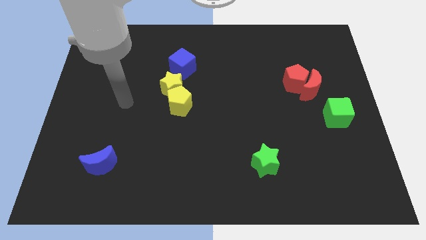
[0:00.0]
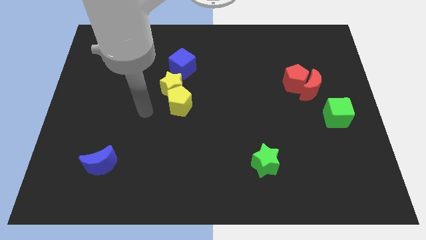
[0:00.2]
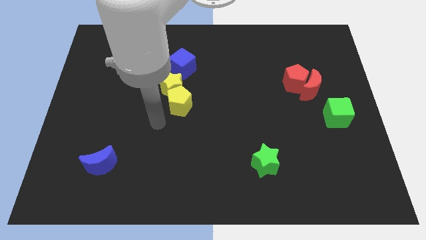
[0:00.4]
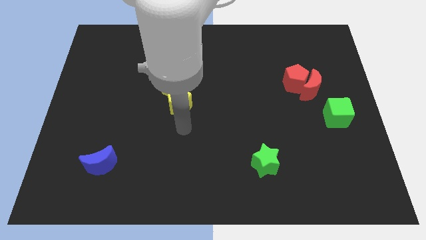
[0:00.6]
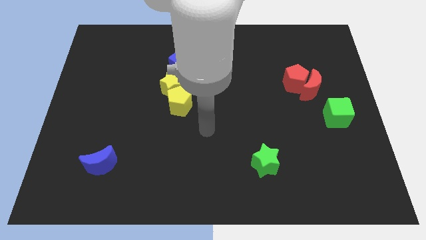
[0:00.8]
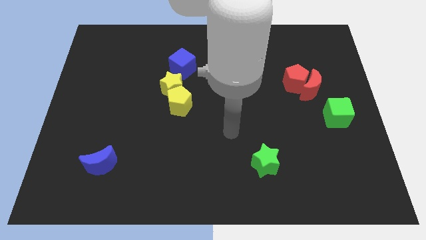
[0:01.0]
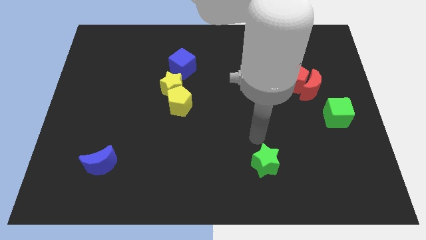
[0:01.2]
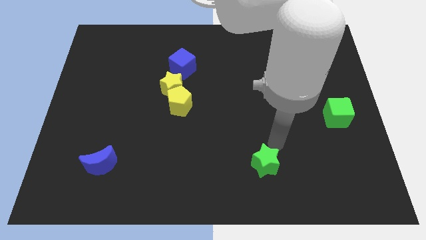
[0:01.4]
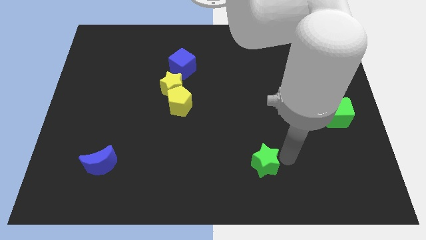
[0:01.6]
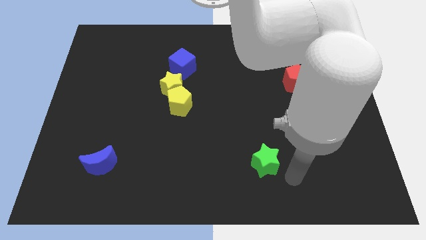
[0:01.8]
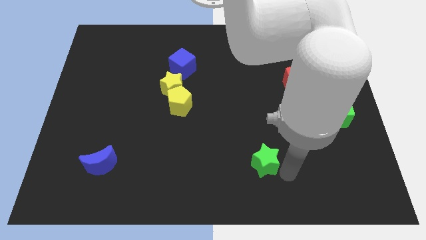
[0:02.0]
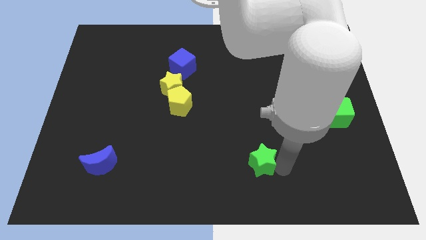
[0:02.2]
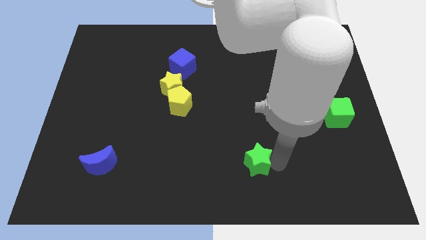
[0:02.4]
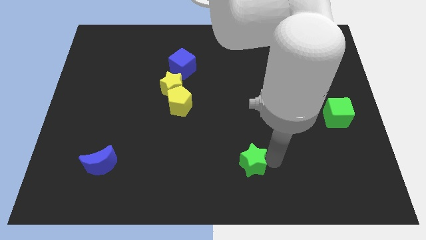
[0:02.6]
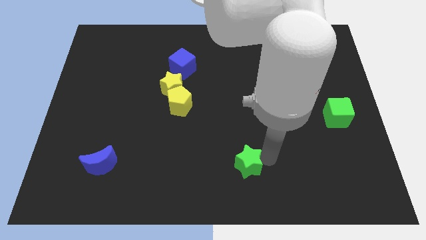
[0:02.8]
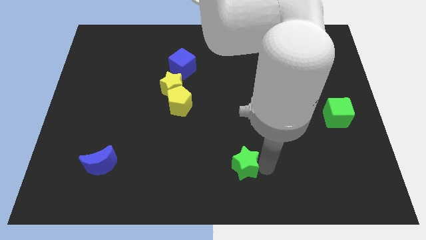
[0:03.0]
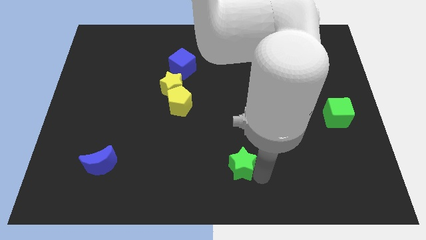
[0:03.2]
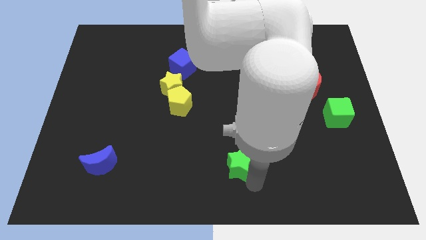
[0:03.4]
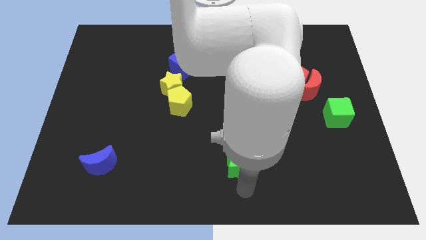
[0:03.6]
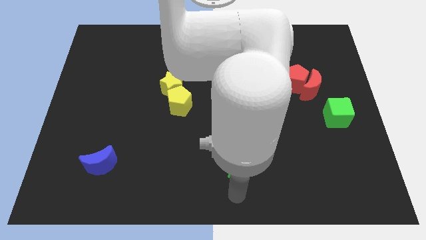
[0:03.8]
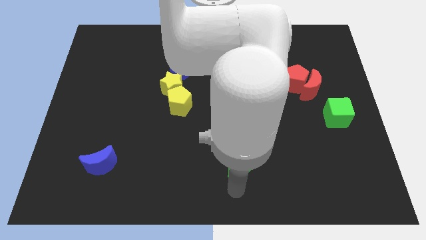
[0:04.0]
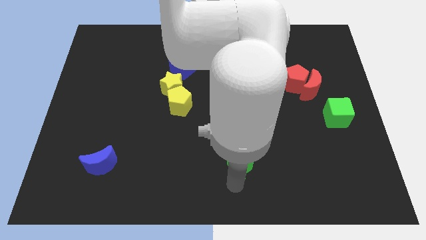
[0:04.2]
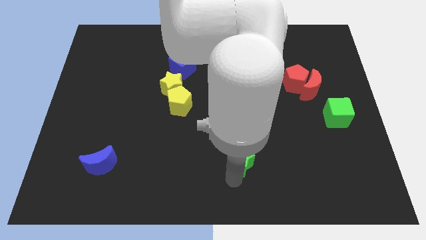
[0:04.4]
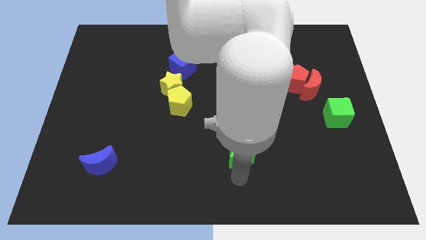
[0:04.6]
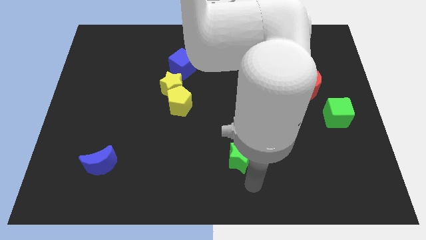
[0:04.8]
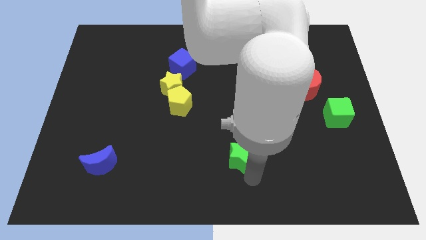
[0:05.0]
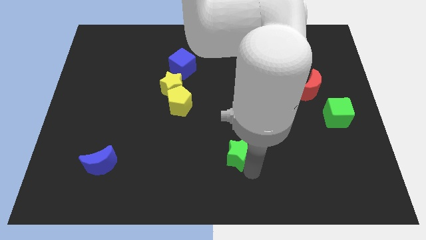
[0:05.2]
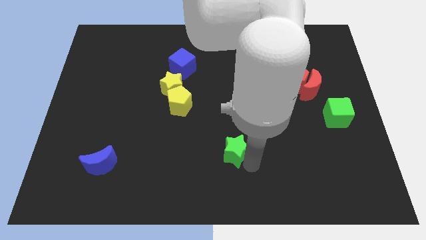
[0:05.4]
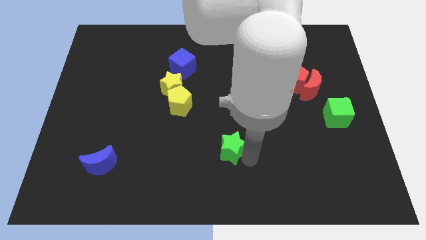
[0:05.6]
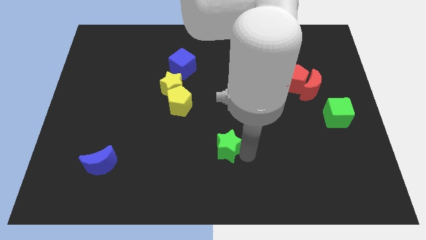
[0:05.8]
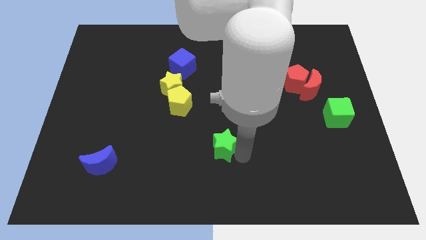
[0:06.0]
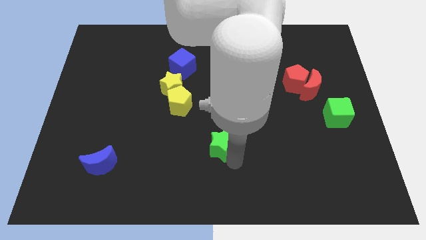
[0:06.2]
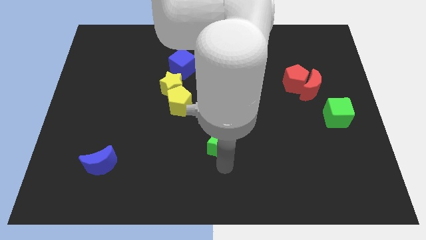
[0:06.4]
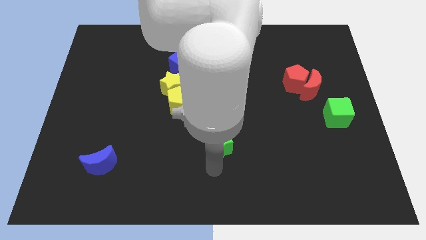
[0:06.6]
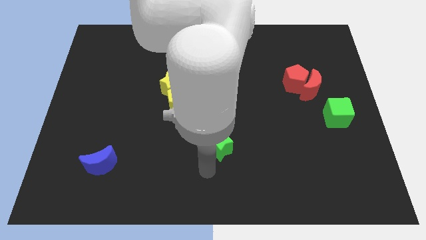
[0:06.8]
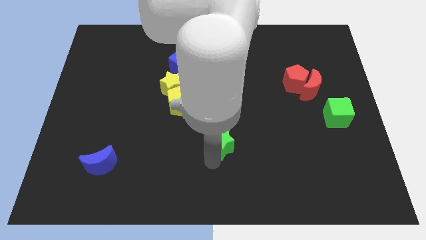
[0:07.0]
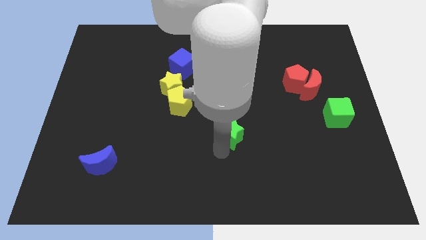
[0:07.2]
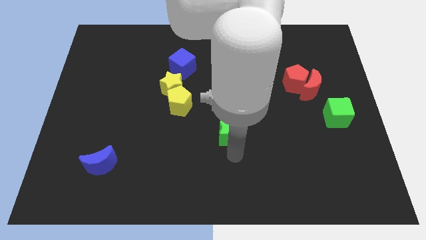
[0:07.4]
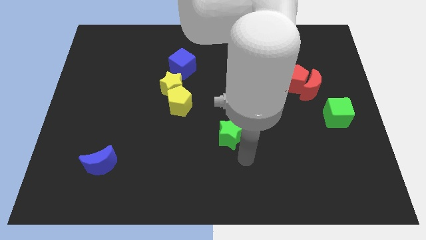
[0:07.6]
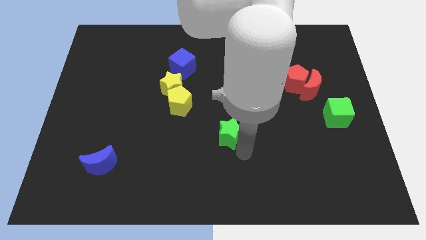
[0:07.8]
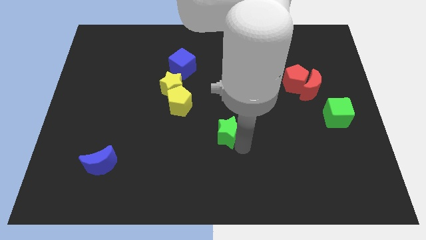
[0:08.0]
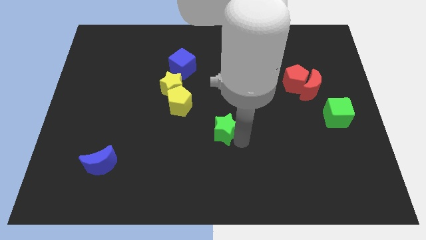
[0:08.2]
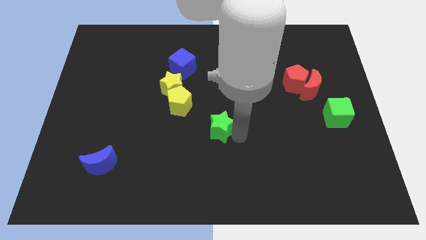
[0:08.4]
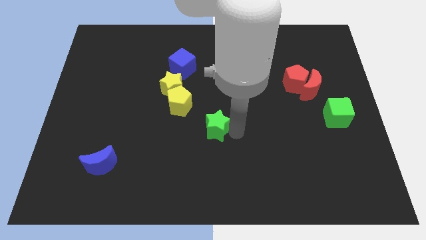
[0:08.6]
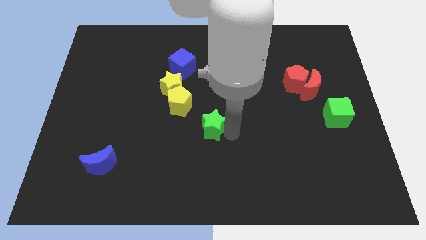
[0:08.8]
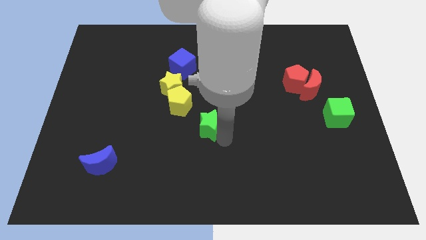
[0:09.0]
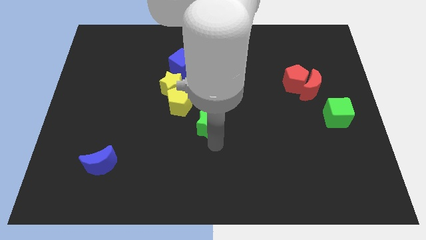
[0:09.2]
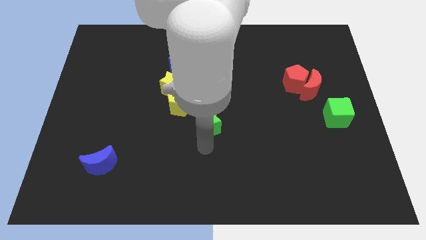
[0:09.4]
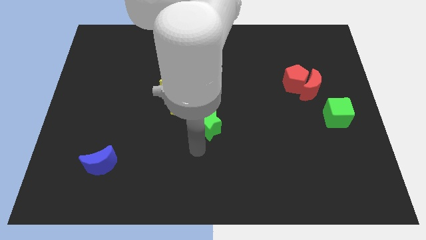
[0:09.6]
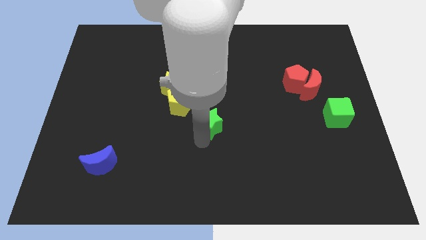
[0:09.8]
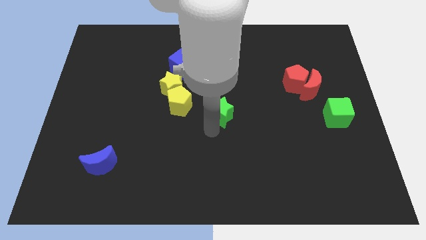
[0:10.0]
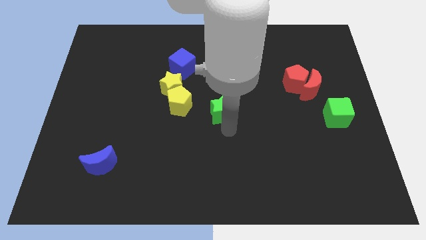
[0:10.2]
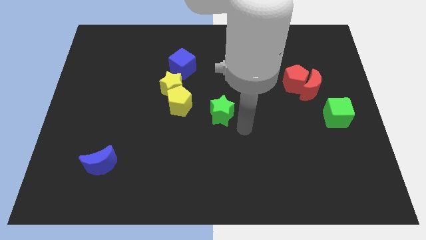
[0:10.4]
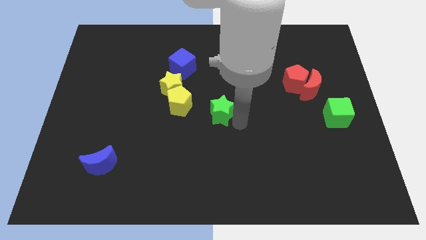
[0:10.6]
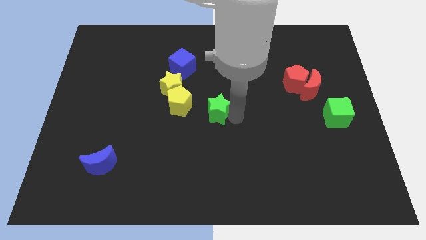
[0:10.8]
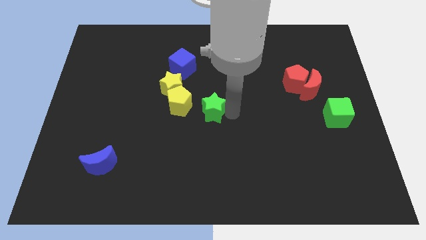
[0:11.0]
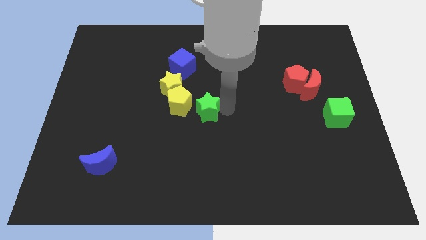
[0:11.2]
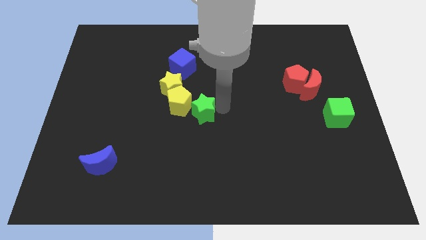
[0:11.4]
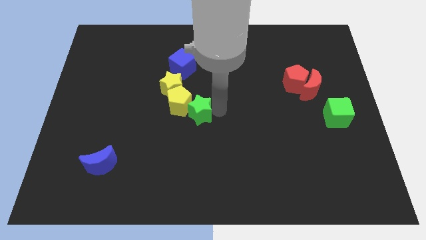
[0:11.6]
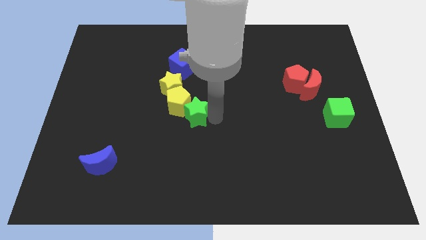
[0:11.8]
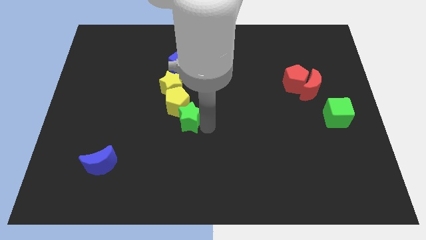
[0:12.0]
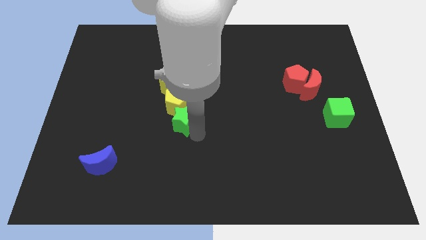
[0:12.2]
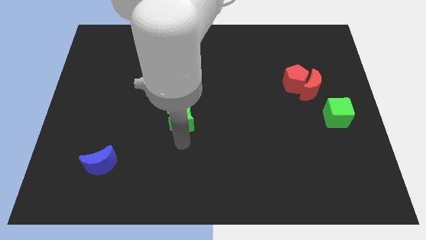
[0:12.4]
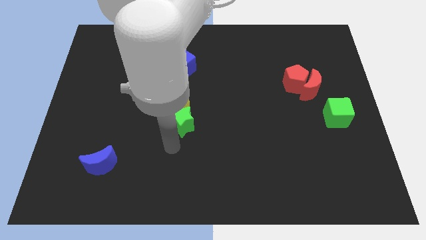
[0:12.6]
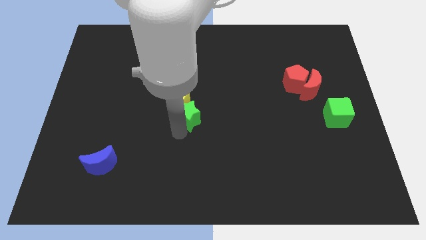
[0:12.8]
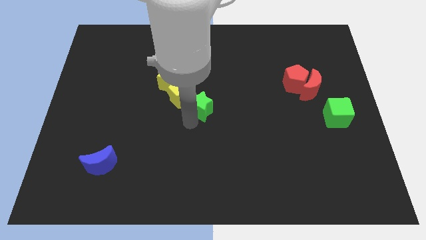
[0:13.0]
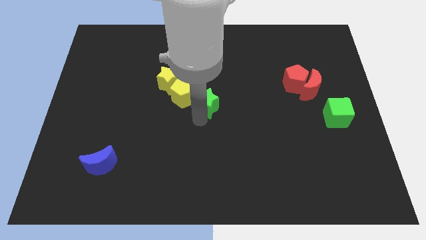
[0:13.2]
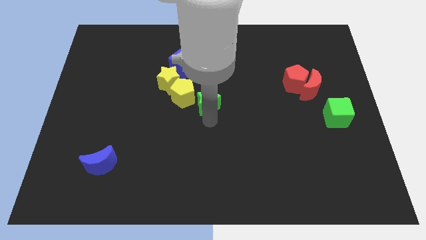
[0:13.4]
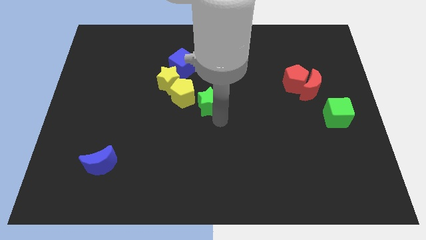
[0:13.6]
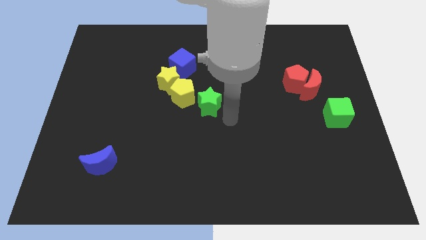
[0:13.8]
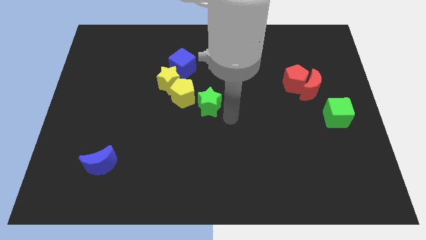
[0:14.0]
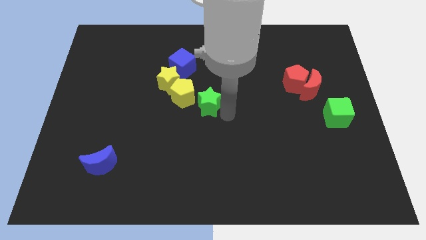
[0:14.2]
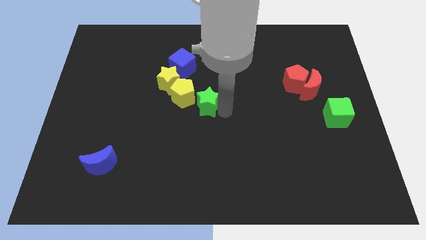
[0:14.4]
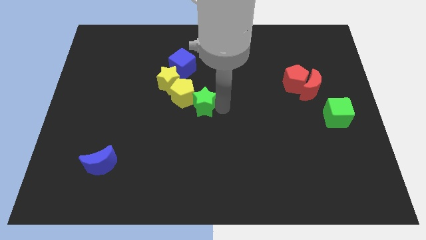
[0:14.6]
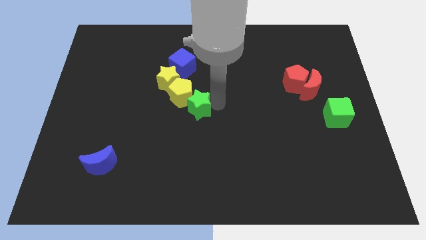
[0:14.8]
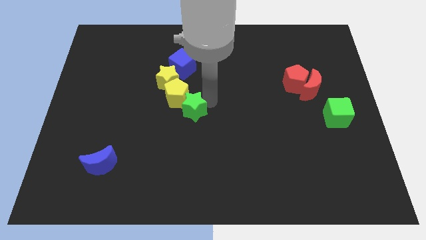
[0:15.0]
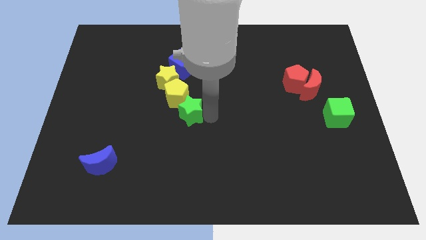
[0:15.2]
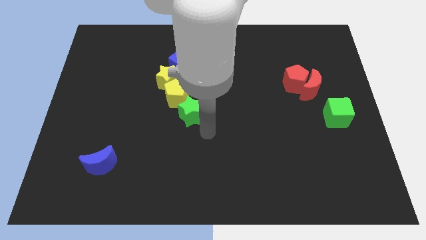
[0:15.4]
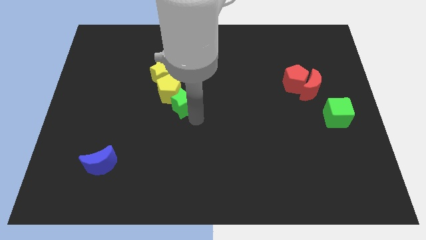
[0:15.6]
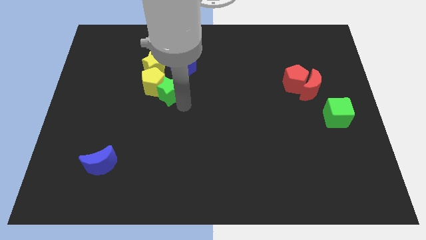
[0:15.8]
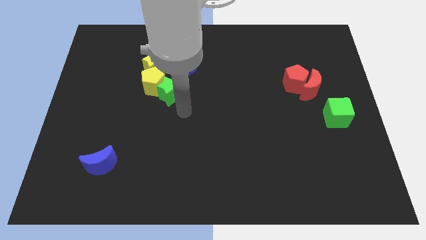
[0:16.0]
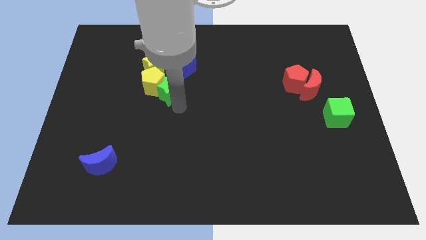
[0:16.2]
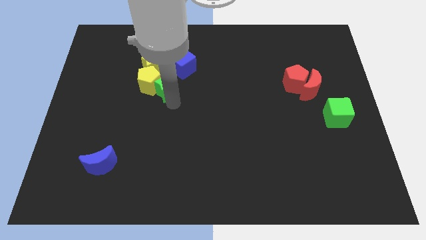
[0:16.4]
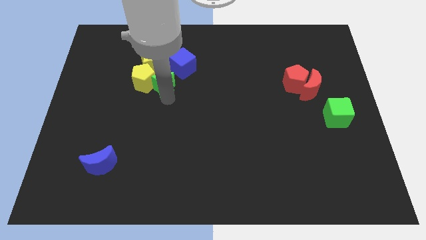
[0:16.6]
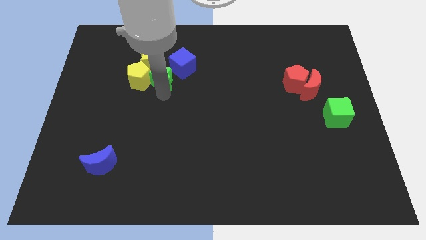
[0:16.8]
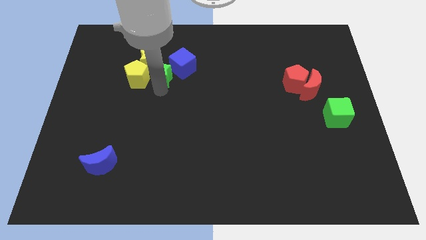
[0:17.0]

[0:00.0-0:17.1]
move the green star next to the yellow star
